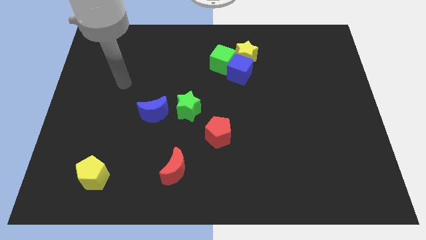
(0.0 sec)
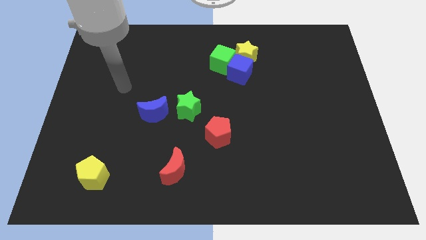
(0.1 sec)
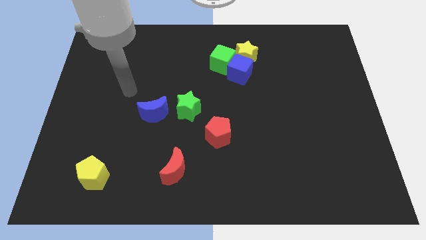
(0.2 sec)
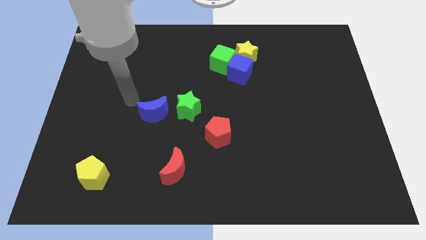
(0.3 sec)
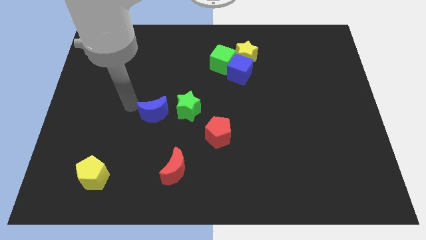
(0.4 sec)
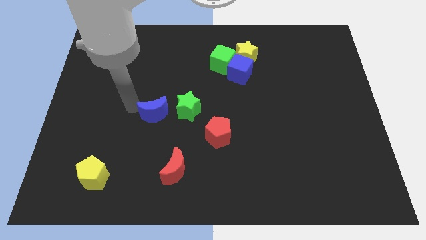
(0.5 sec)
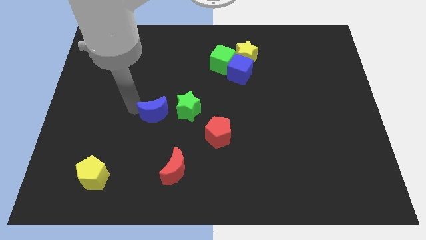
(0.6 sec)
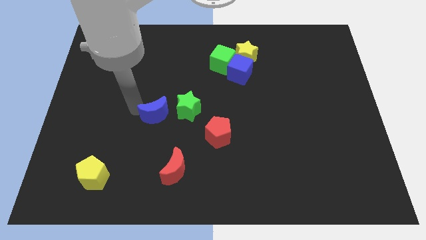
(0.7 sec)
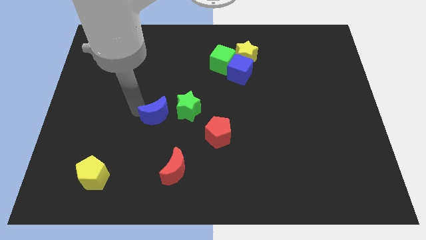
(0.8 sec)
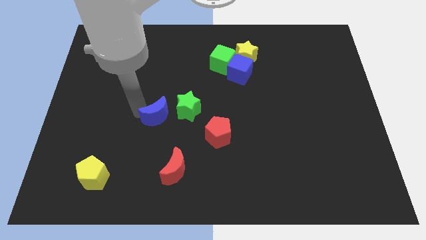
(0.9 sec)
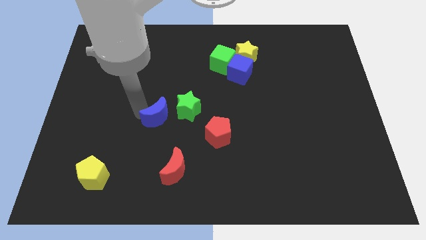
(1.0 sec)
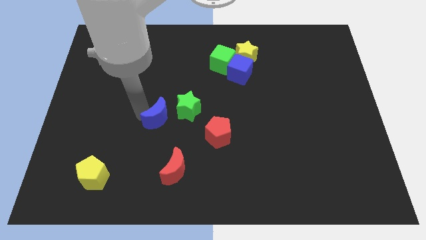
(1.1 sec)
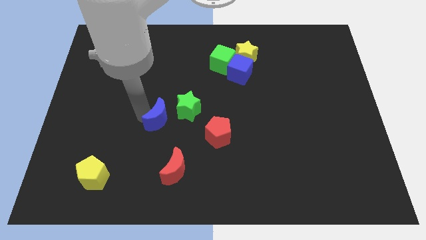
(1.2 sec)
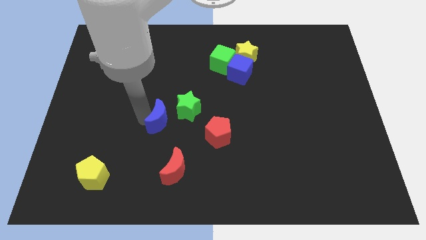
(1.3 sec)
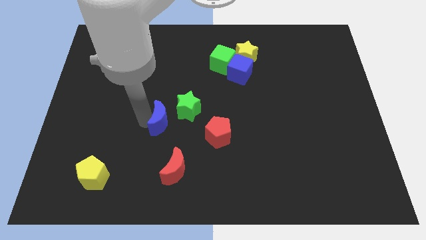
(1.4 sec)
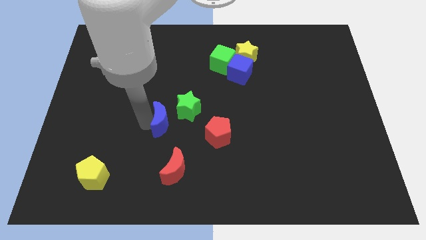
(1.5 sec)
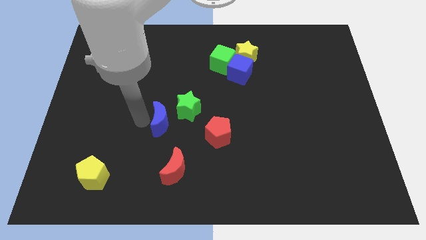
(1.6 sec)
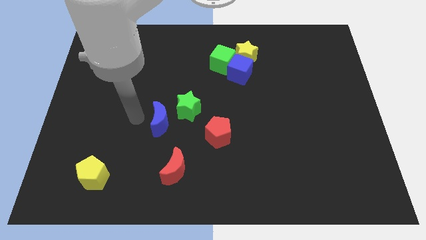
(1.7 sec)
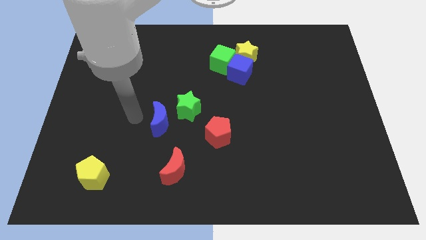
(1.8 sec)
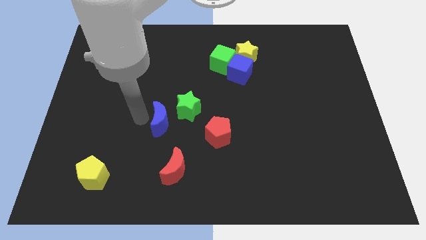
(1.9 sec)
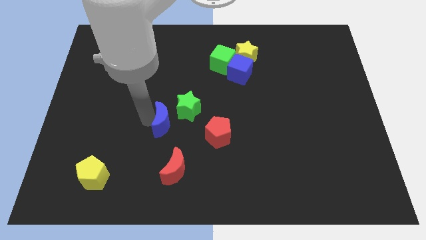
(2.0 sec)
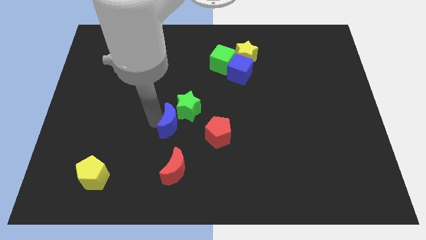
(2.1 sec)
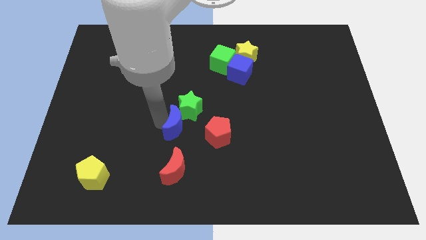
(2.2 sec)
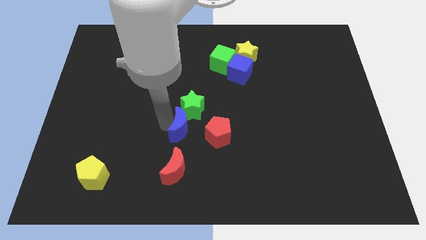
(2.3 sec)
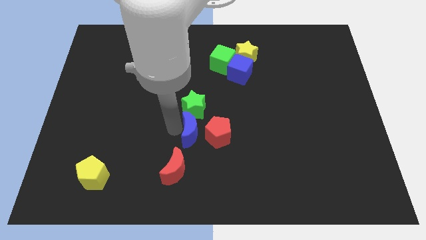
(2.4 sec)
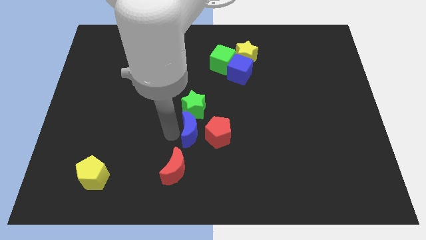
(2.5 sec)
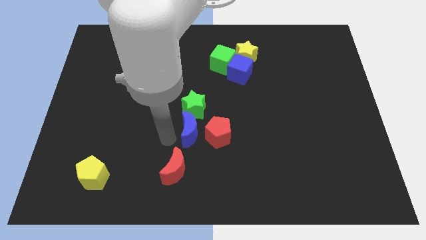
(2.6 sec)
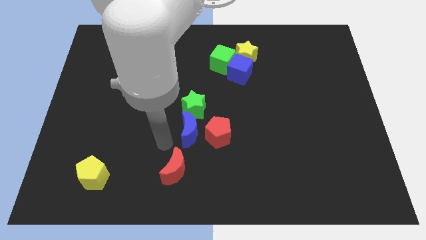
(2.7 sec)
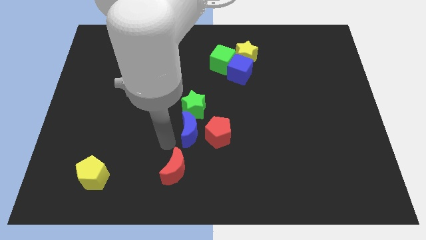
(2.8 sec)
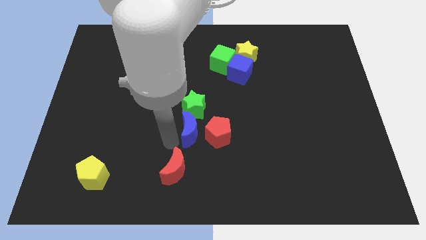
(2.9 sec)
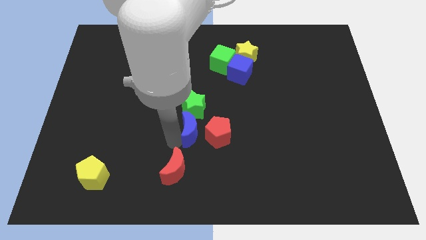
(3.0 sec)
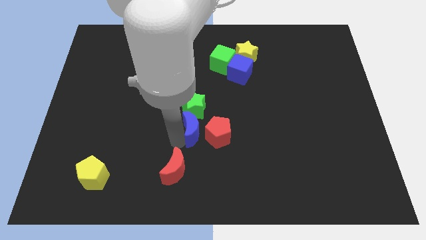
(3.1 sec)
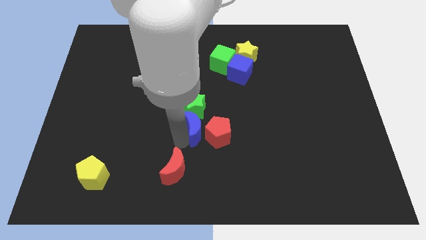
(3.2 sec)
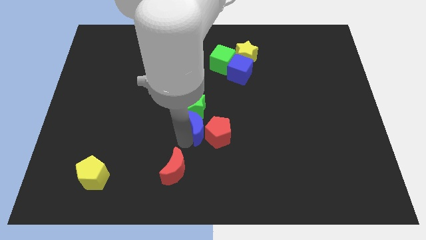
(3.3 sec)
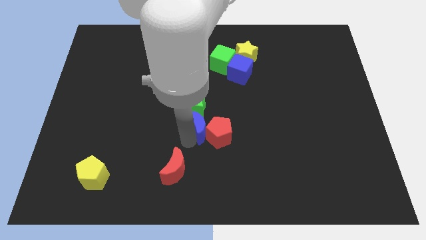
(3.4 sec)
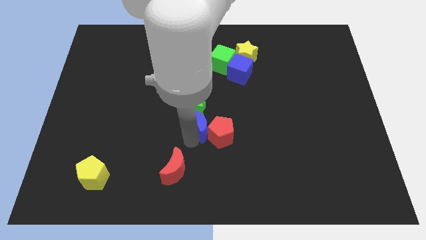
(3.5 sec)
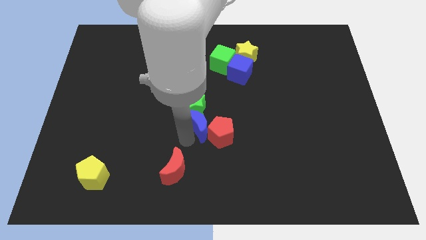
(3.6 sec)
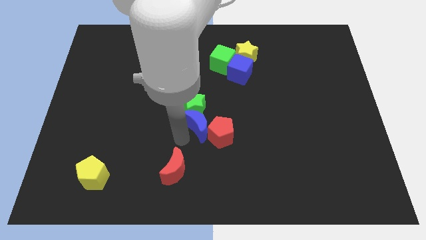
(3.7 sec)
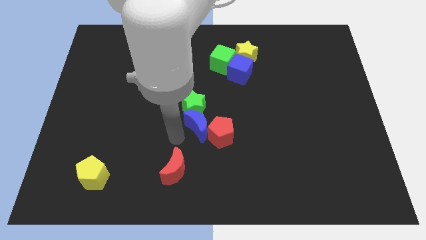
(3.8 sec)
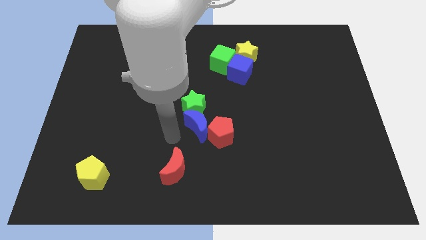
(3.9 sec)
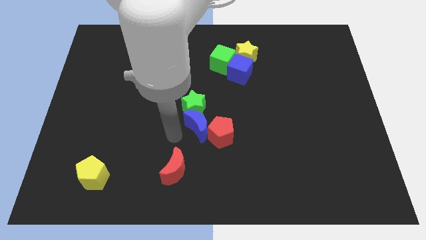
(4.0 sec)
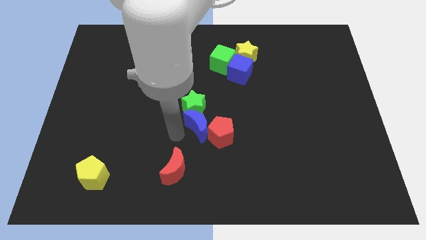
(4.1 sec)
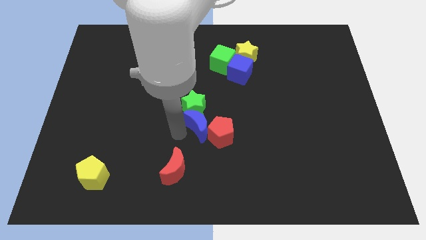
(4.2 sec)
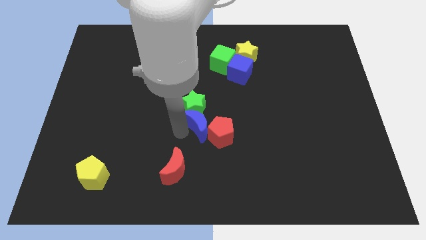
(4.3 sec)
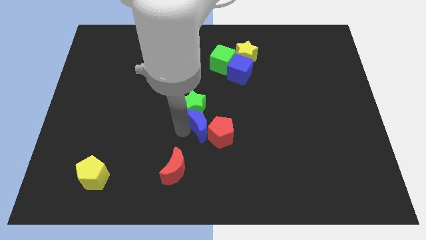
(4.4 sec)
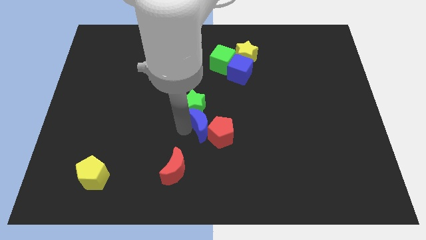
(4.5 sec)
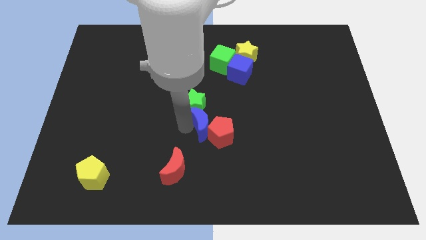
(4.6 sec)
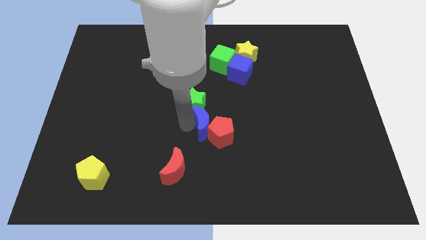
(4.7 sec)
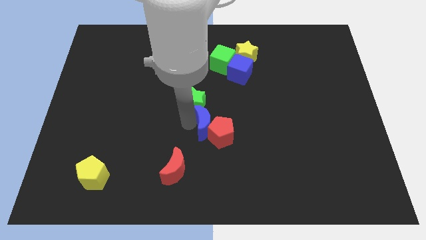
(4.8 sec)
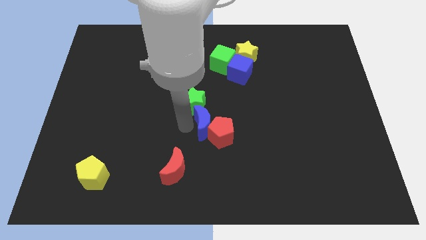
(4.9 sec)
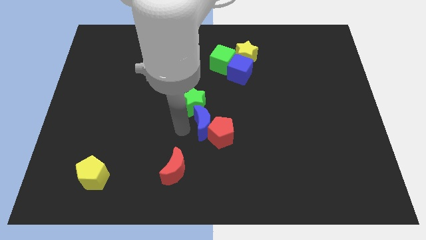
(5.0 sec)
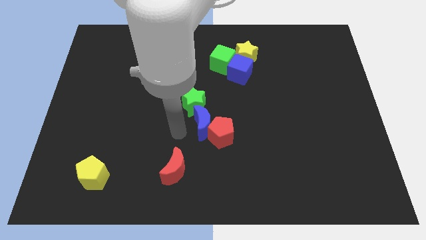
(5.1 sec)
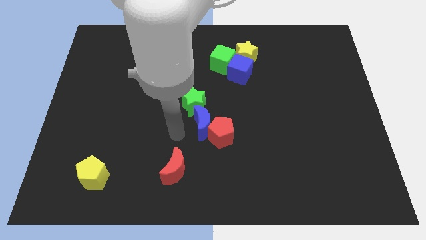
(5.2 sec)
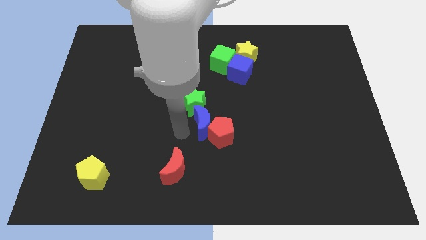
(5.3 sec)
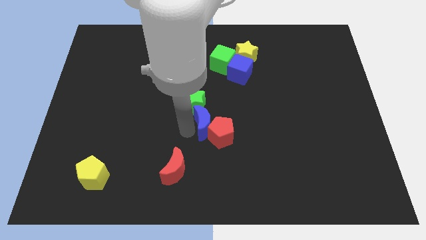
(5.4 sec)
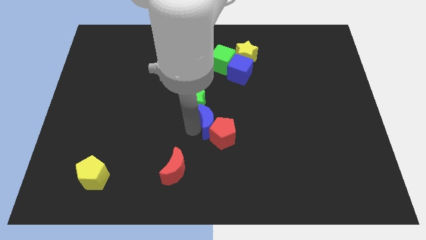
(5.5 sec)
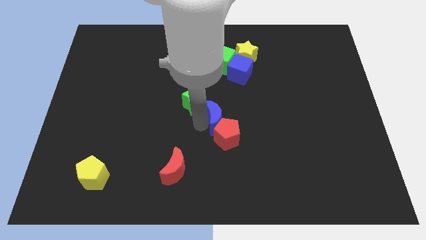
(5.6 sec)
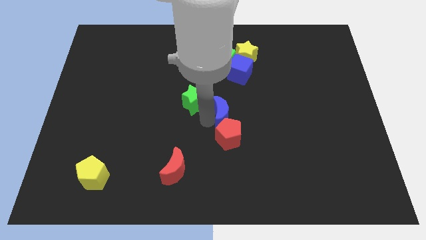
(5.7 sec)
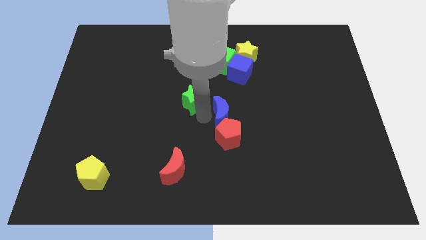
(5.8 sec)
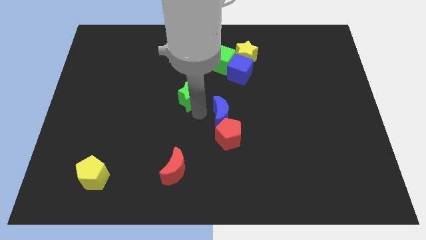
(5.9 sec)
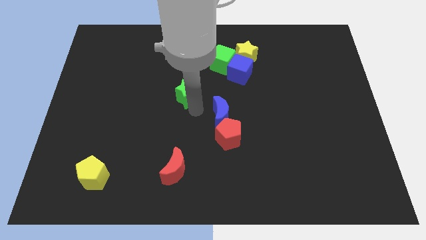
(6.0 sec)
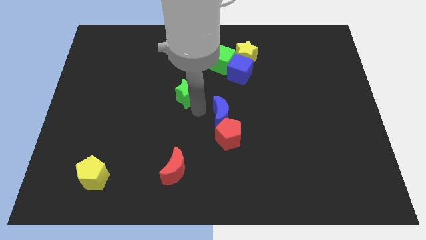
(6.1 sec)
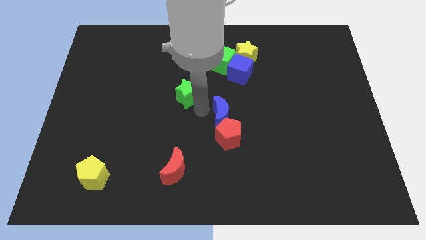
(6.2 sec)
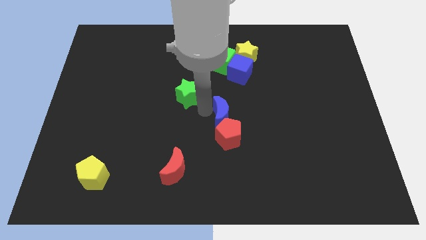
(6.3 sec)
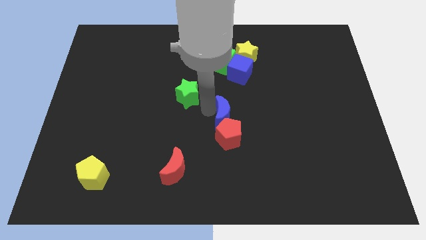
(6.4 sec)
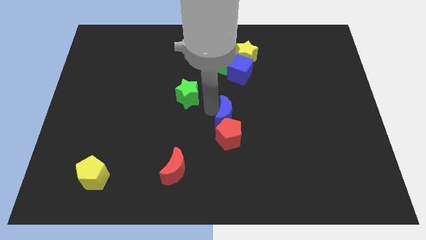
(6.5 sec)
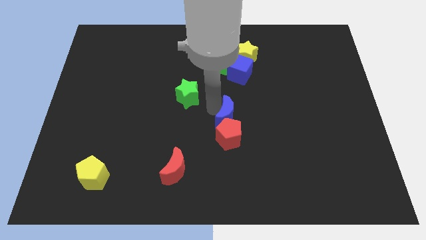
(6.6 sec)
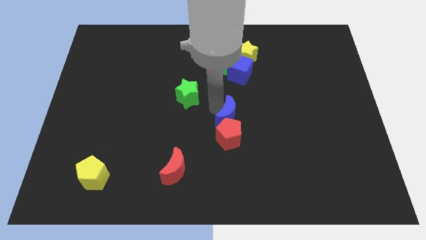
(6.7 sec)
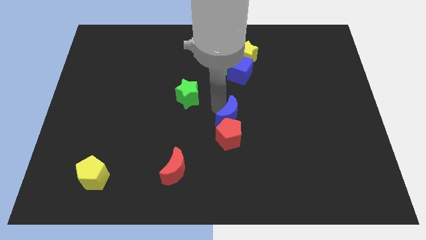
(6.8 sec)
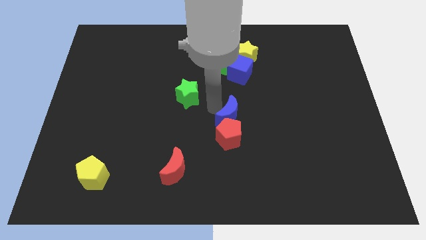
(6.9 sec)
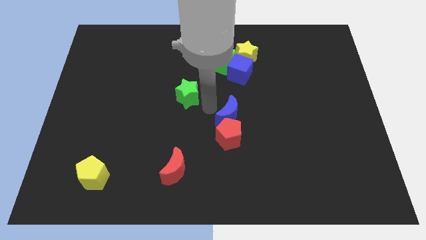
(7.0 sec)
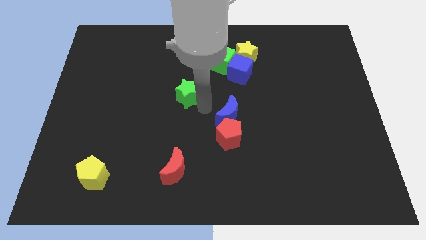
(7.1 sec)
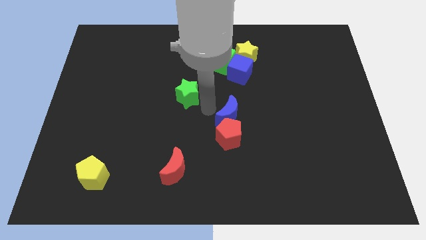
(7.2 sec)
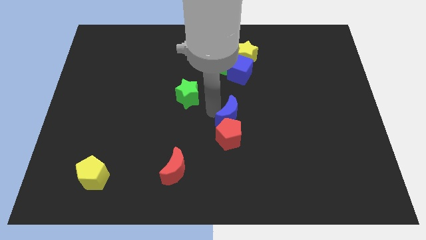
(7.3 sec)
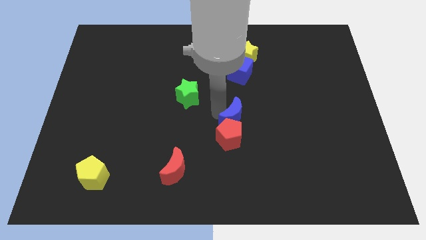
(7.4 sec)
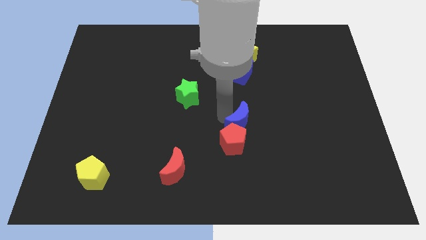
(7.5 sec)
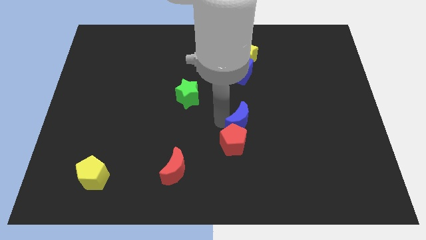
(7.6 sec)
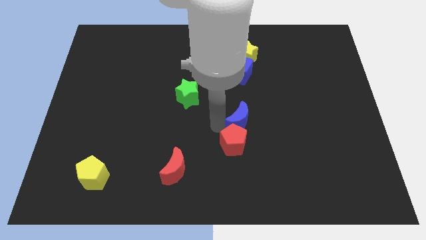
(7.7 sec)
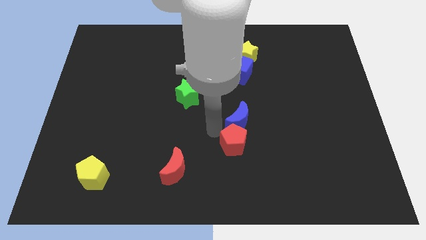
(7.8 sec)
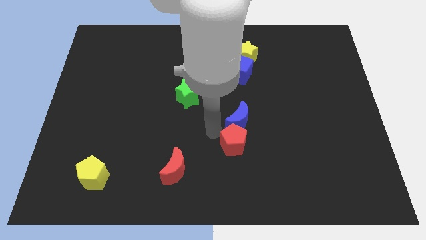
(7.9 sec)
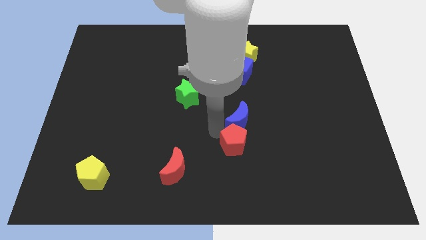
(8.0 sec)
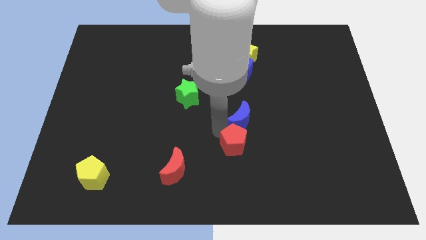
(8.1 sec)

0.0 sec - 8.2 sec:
push the blue moon to the right
